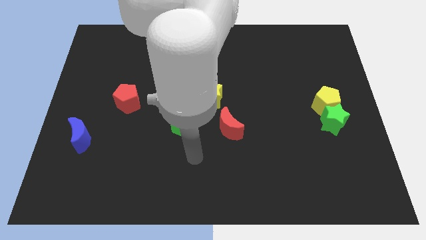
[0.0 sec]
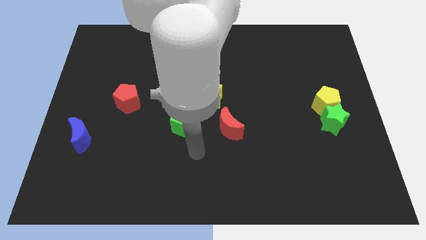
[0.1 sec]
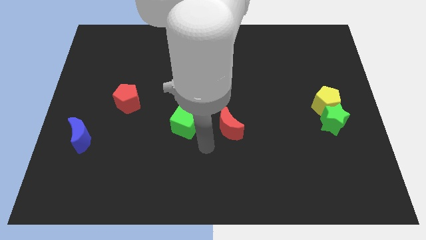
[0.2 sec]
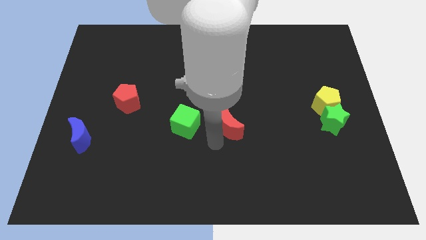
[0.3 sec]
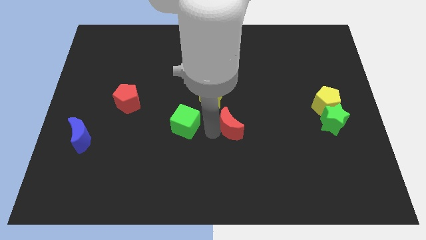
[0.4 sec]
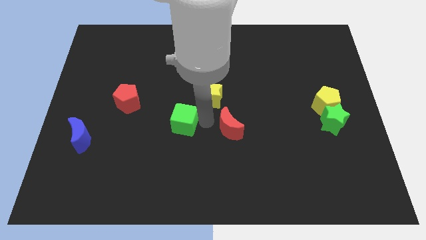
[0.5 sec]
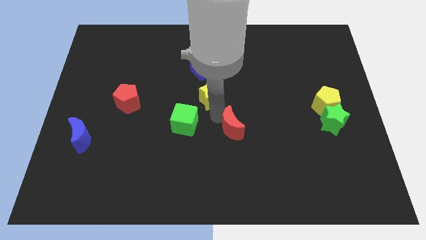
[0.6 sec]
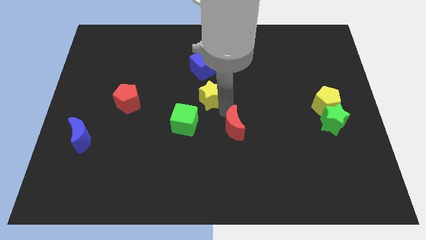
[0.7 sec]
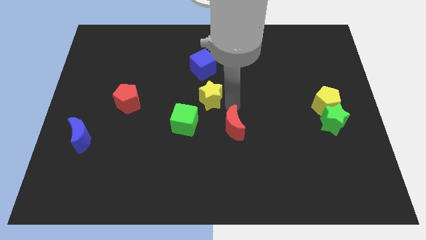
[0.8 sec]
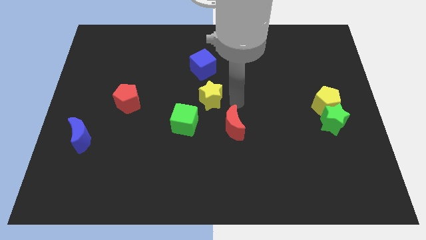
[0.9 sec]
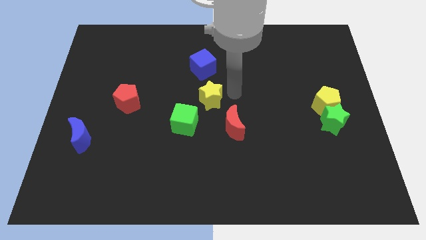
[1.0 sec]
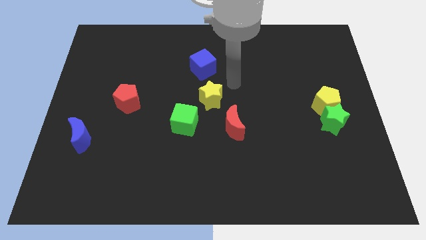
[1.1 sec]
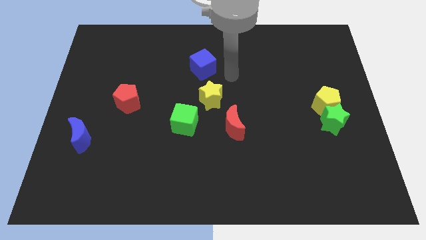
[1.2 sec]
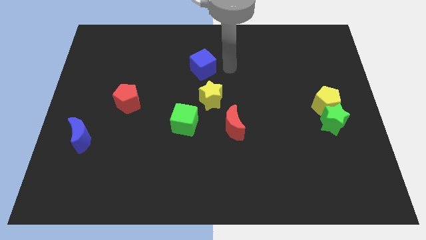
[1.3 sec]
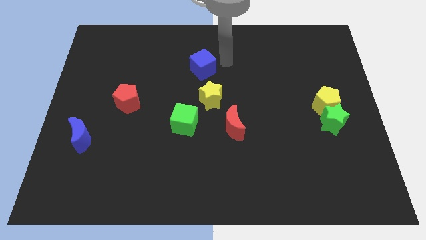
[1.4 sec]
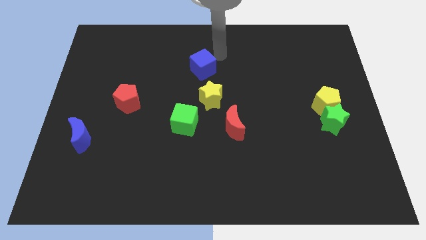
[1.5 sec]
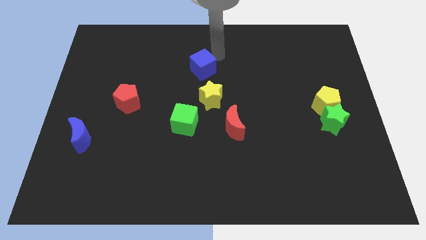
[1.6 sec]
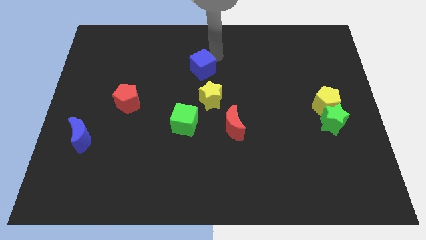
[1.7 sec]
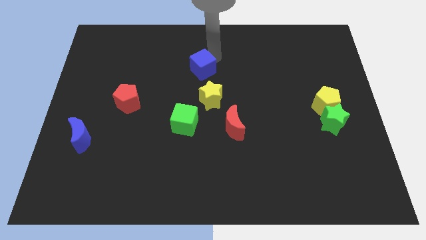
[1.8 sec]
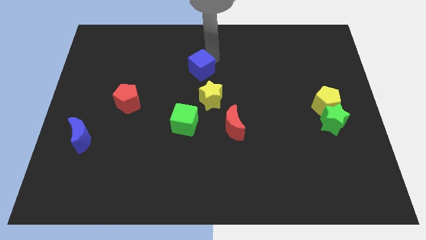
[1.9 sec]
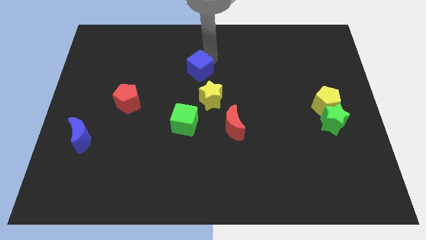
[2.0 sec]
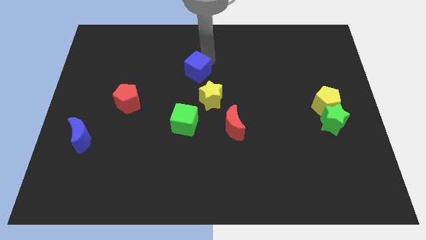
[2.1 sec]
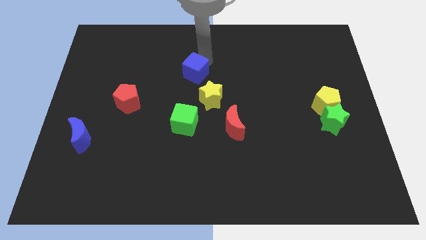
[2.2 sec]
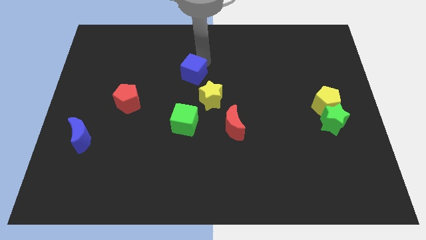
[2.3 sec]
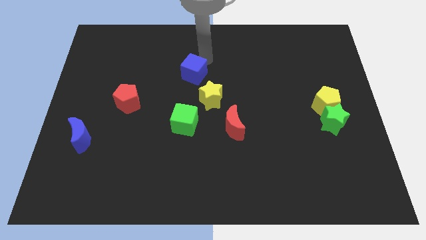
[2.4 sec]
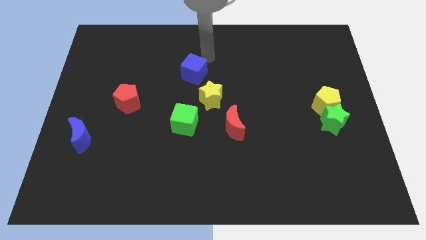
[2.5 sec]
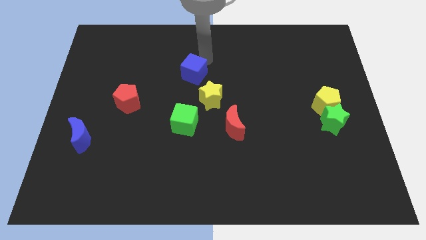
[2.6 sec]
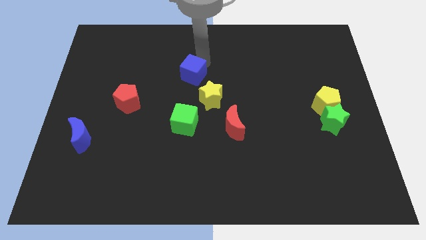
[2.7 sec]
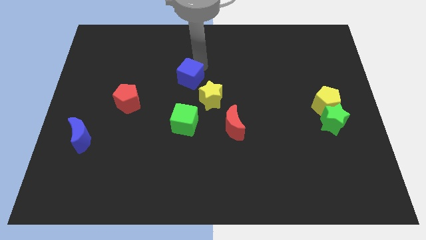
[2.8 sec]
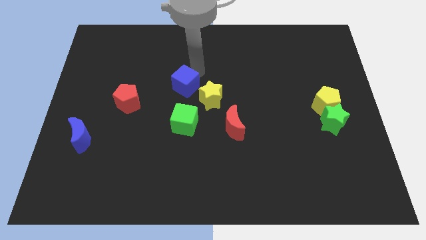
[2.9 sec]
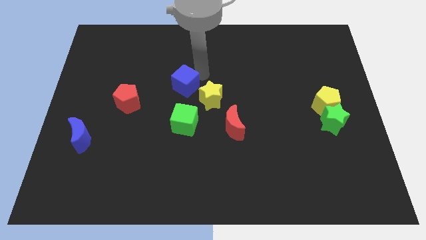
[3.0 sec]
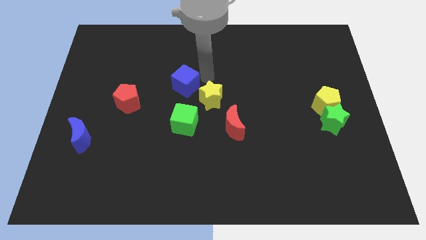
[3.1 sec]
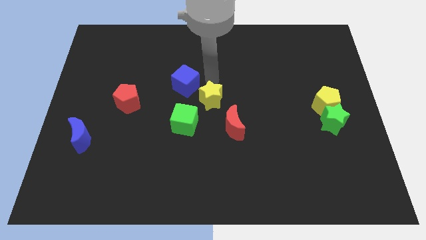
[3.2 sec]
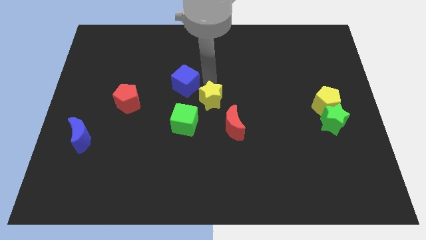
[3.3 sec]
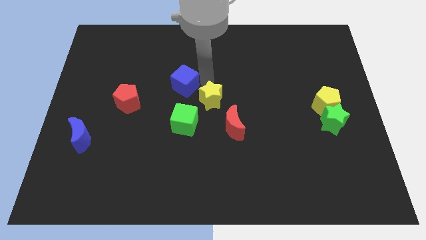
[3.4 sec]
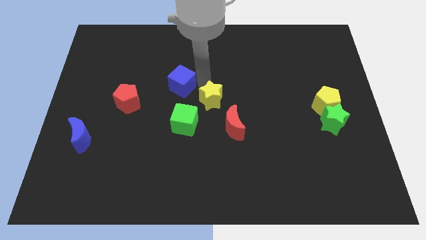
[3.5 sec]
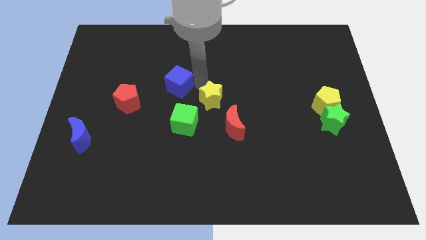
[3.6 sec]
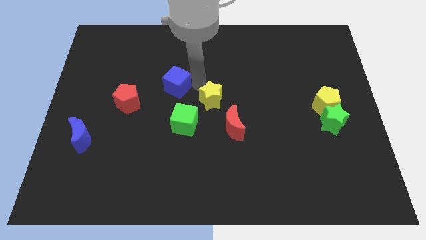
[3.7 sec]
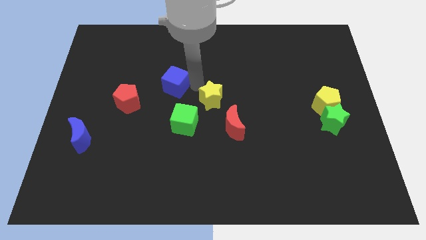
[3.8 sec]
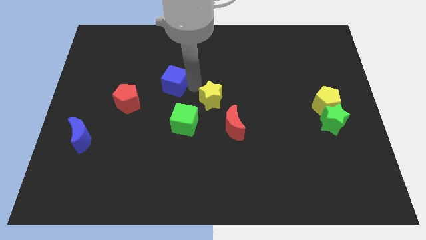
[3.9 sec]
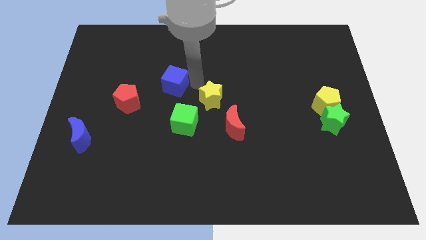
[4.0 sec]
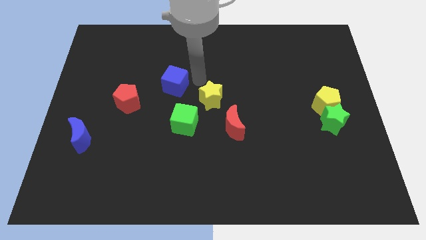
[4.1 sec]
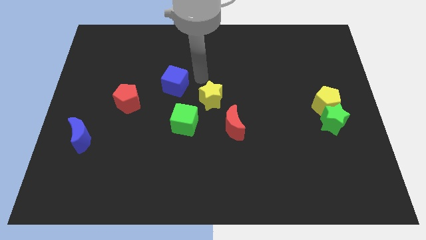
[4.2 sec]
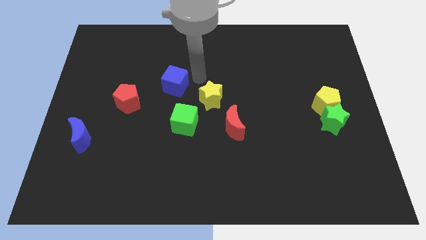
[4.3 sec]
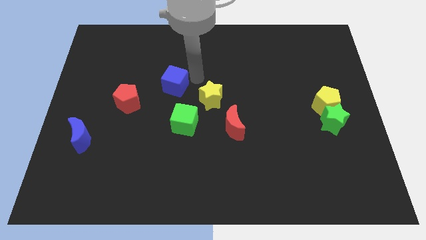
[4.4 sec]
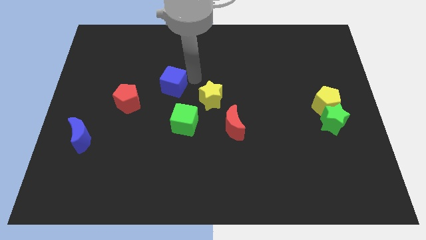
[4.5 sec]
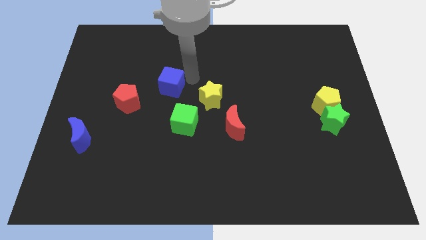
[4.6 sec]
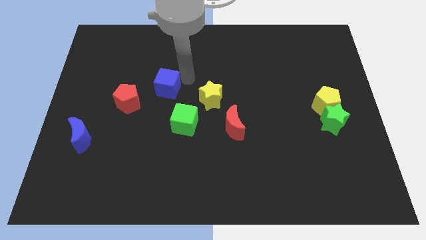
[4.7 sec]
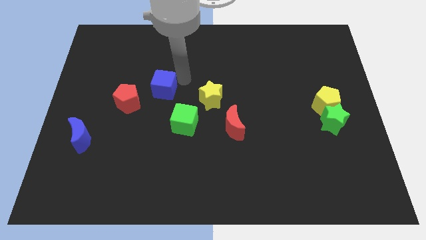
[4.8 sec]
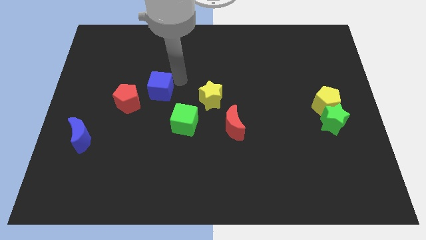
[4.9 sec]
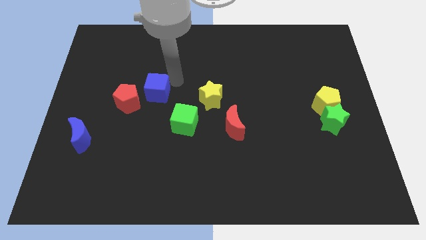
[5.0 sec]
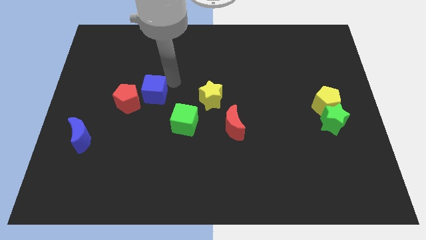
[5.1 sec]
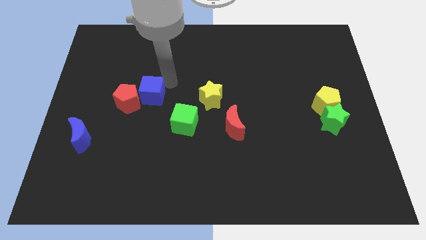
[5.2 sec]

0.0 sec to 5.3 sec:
slide the blue cube to the red pentagon

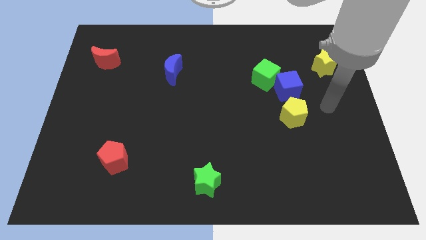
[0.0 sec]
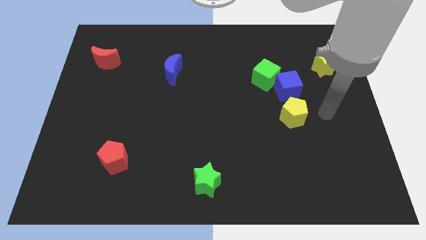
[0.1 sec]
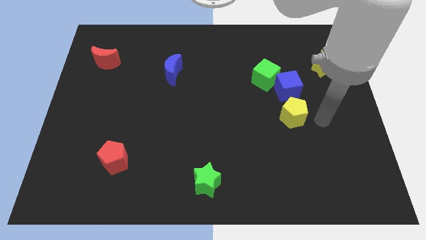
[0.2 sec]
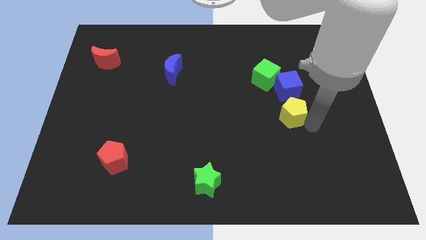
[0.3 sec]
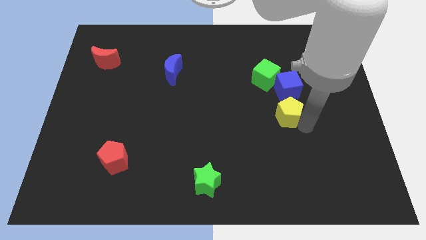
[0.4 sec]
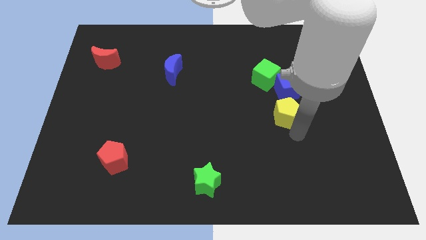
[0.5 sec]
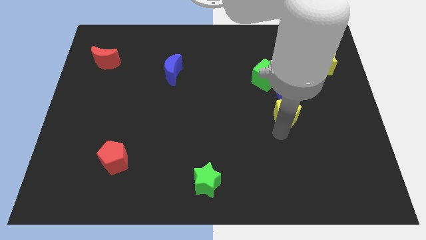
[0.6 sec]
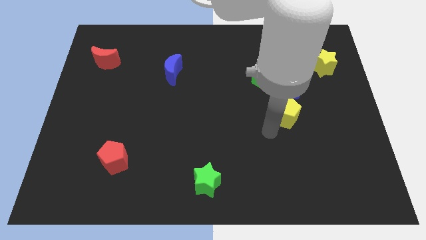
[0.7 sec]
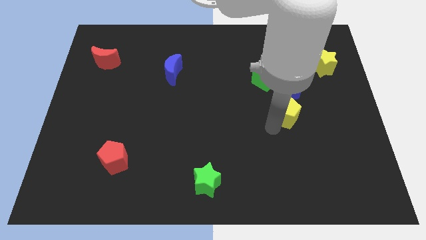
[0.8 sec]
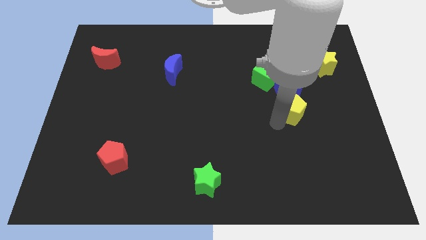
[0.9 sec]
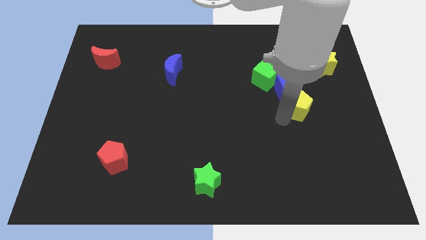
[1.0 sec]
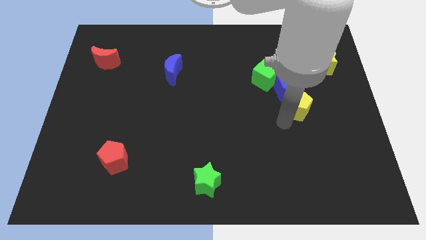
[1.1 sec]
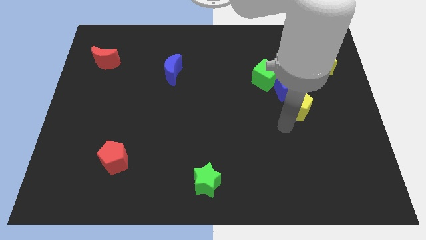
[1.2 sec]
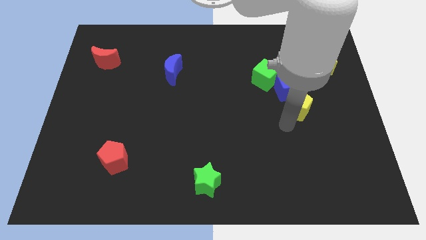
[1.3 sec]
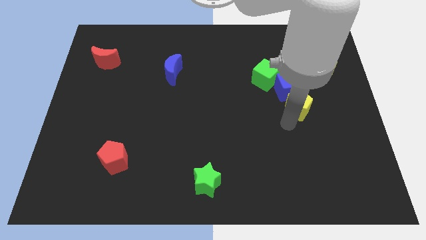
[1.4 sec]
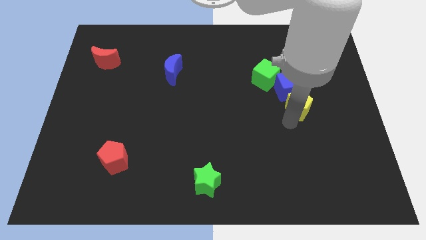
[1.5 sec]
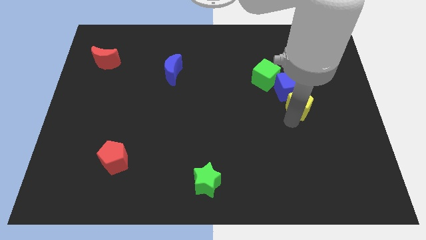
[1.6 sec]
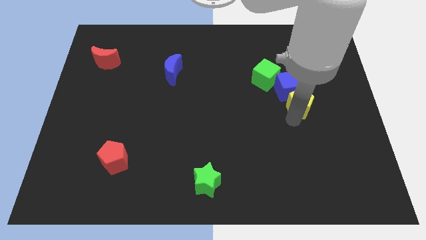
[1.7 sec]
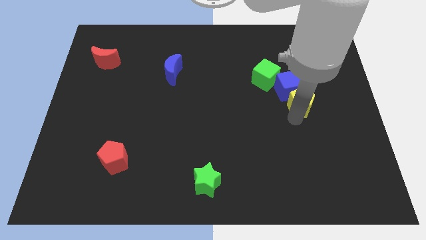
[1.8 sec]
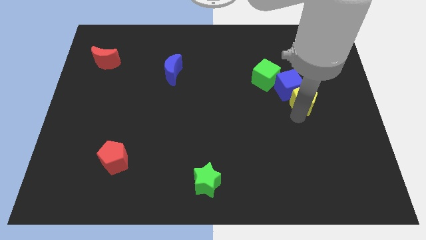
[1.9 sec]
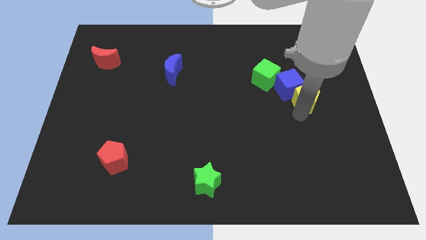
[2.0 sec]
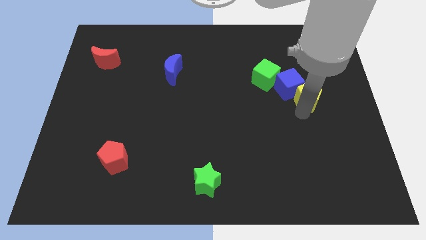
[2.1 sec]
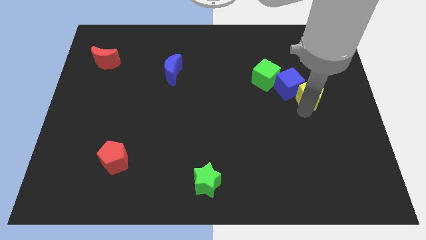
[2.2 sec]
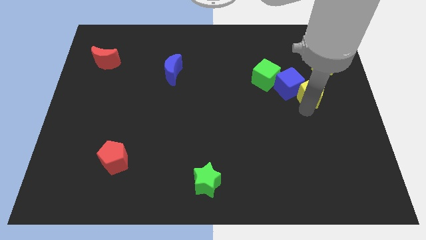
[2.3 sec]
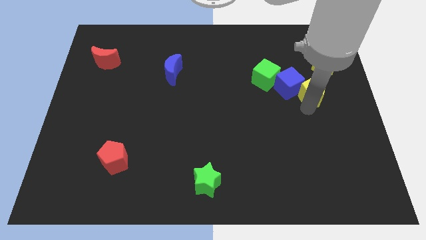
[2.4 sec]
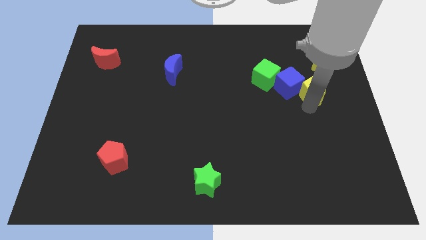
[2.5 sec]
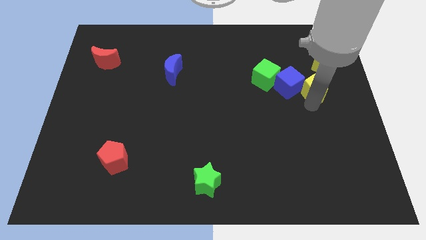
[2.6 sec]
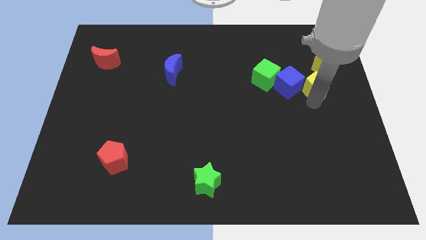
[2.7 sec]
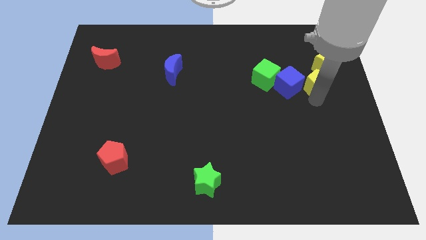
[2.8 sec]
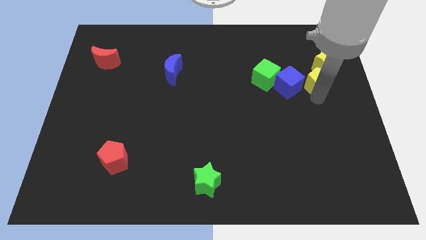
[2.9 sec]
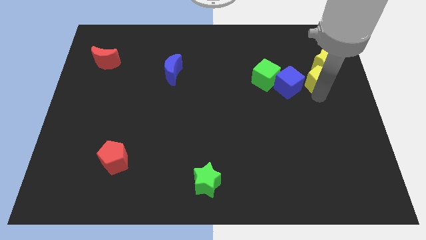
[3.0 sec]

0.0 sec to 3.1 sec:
put the yellow pentagon close to the yellow star
